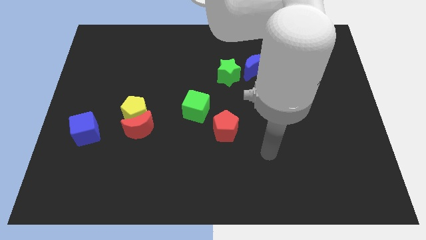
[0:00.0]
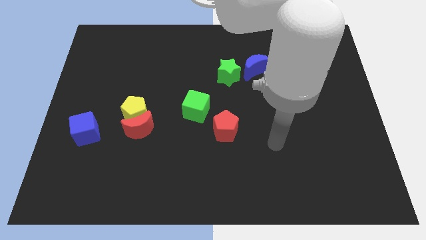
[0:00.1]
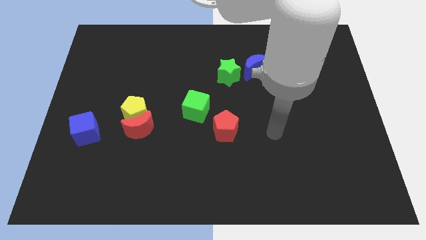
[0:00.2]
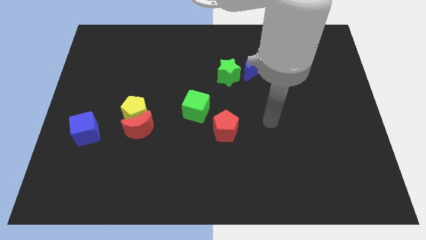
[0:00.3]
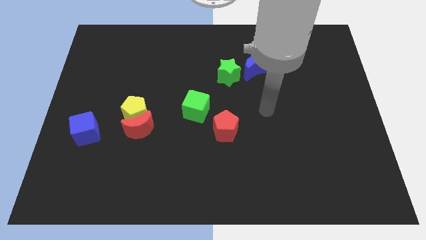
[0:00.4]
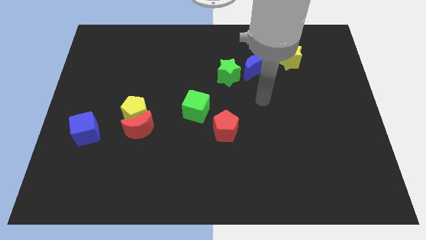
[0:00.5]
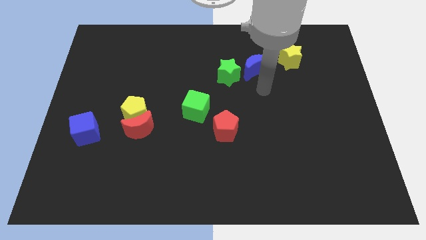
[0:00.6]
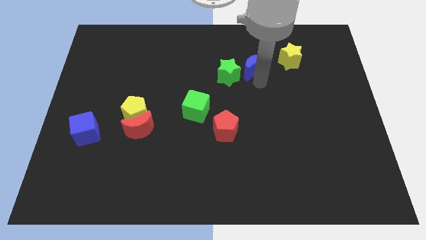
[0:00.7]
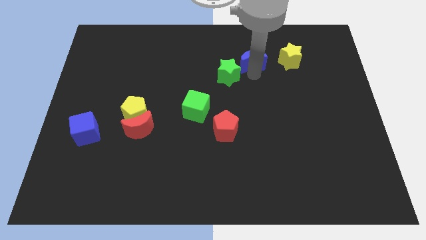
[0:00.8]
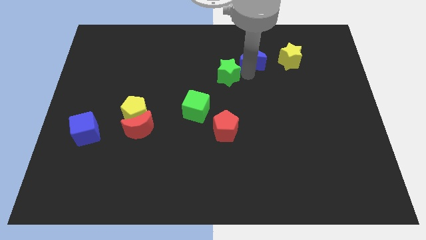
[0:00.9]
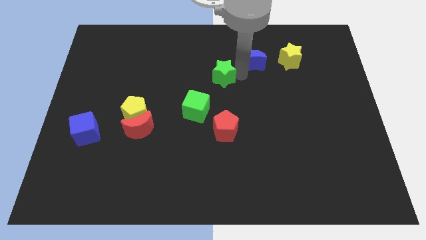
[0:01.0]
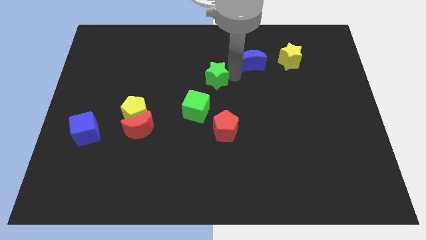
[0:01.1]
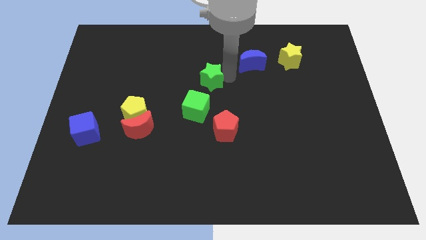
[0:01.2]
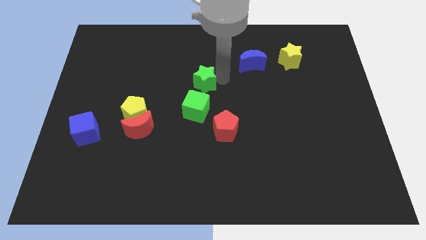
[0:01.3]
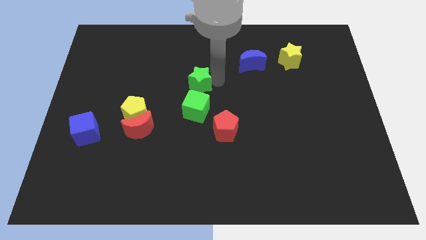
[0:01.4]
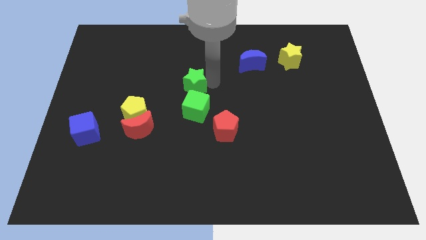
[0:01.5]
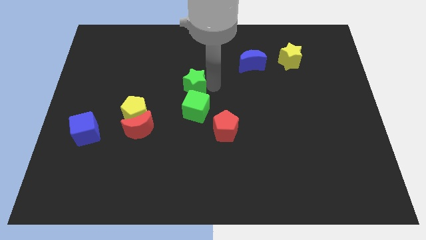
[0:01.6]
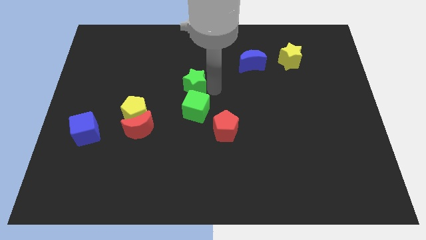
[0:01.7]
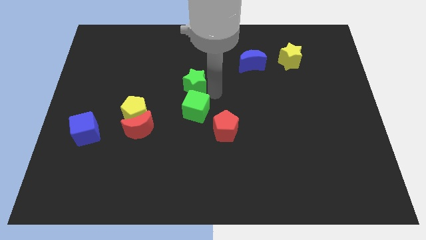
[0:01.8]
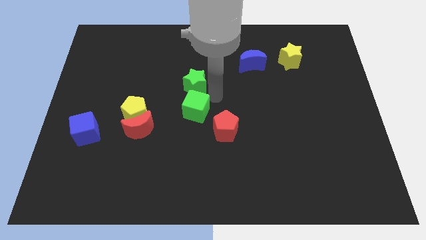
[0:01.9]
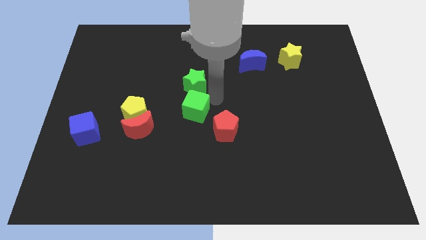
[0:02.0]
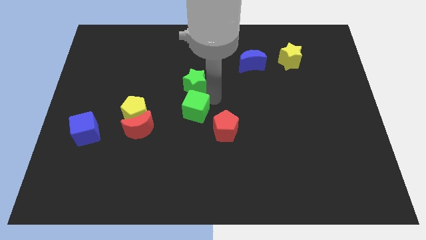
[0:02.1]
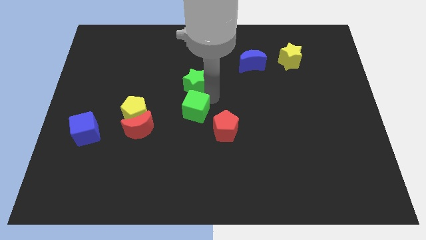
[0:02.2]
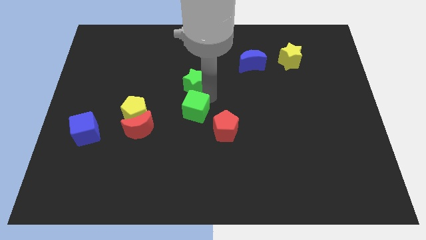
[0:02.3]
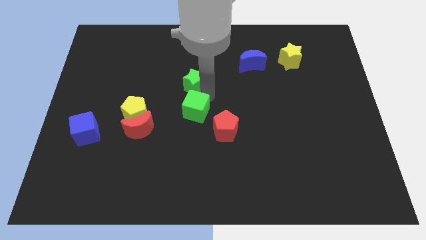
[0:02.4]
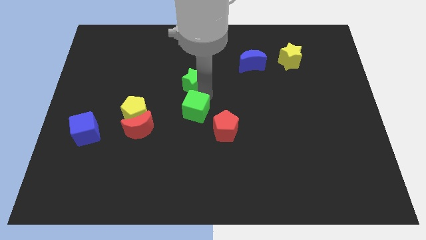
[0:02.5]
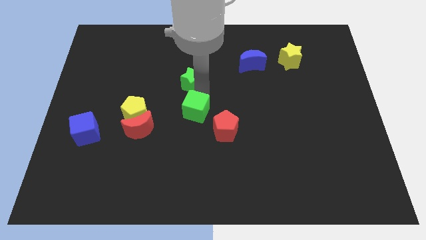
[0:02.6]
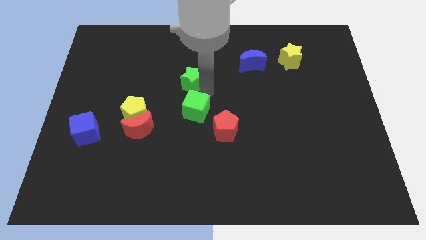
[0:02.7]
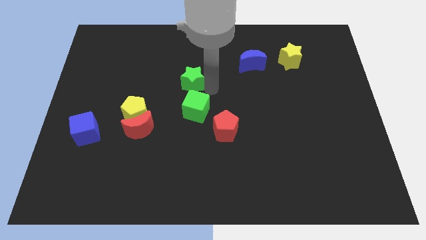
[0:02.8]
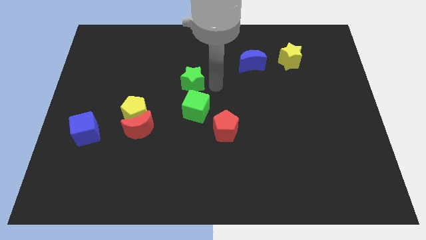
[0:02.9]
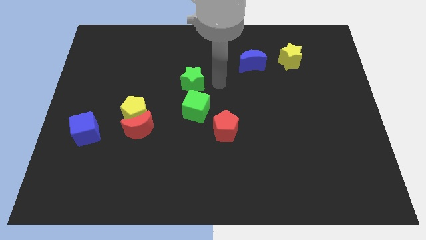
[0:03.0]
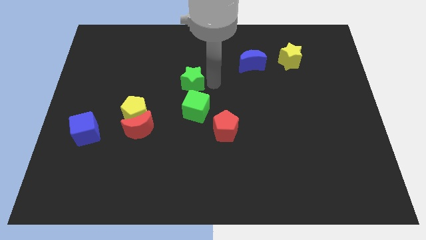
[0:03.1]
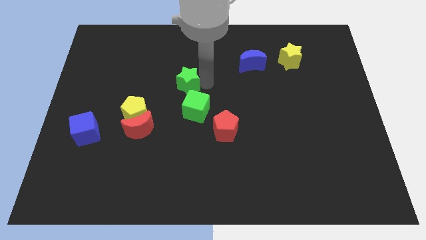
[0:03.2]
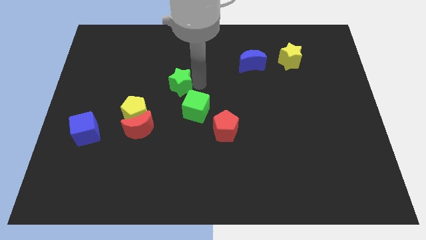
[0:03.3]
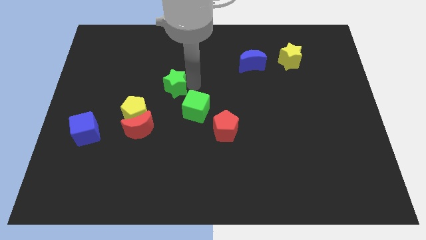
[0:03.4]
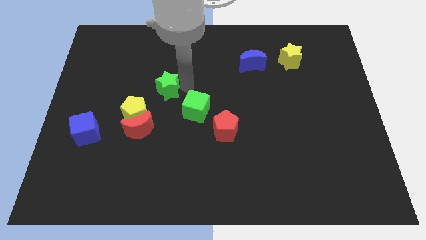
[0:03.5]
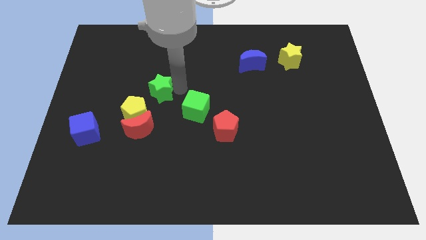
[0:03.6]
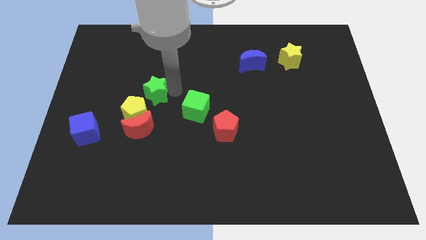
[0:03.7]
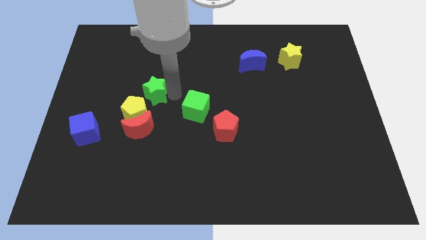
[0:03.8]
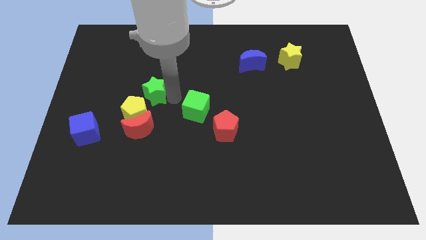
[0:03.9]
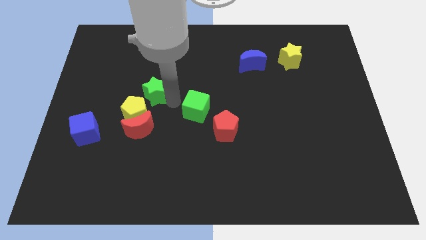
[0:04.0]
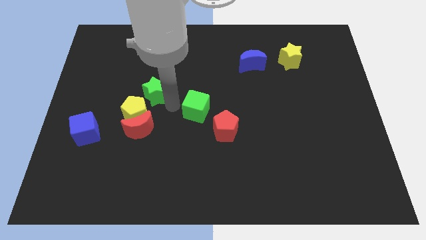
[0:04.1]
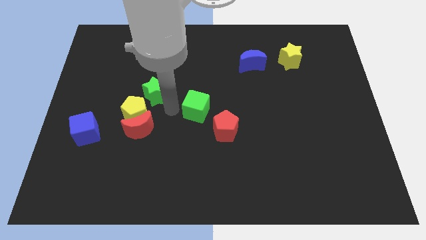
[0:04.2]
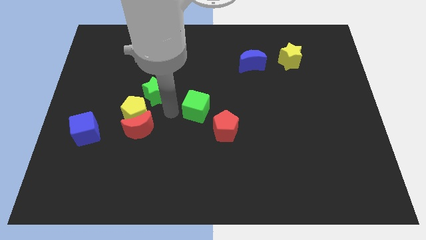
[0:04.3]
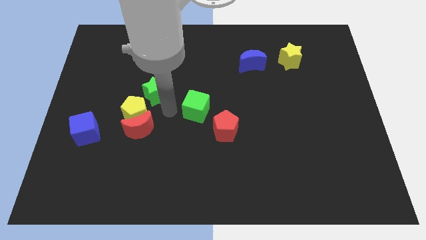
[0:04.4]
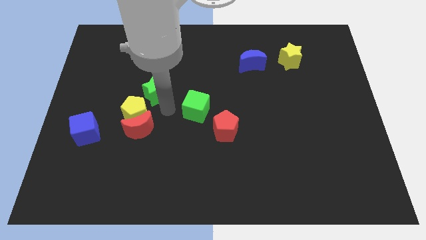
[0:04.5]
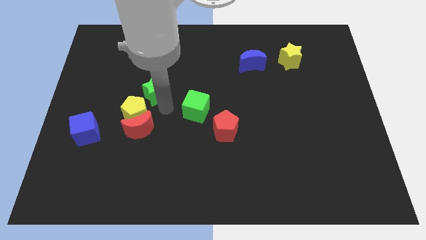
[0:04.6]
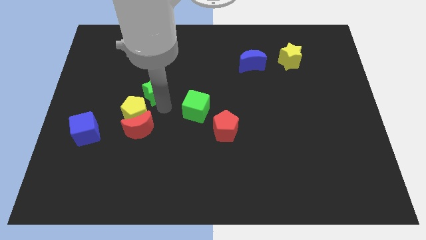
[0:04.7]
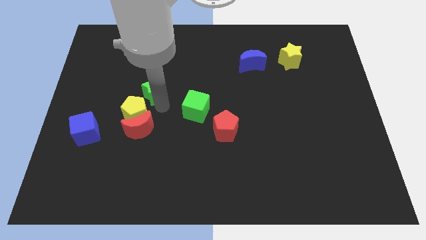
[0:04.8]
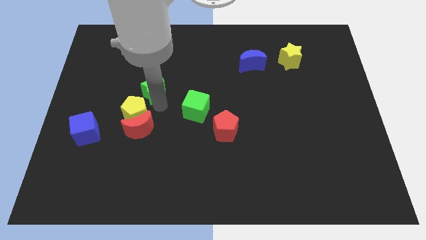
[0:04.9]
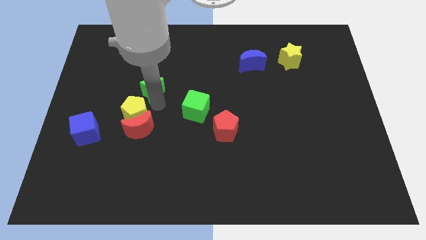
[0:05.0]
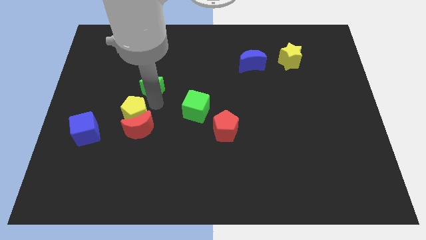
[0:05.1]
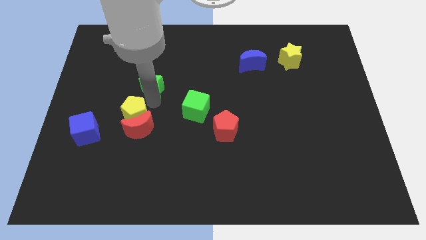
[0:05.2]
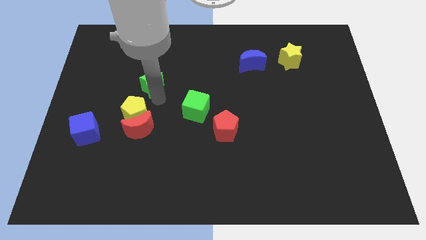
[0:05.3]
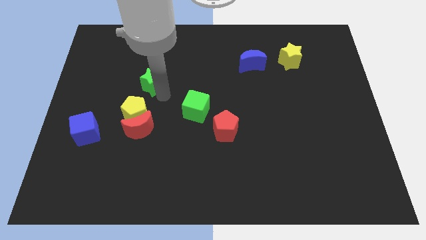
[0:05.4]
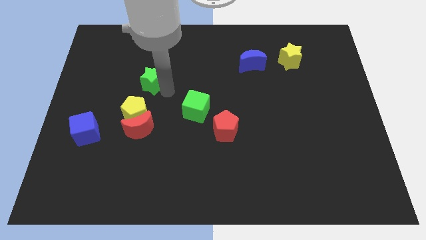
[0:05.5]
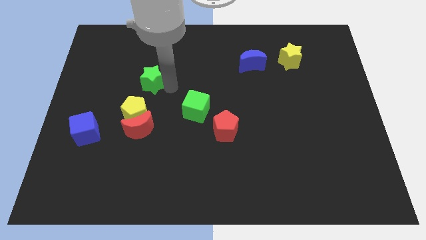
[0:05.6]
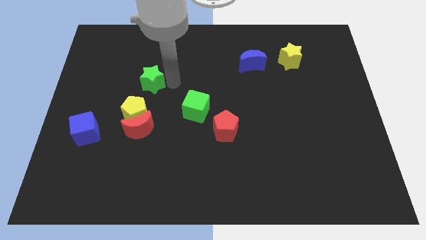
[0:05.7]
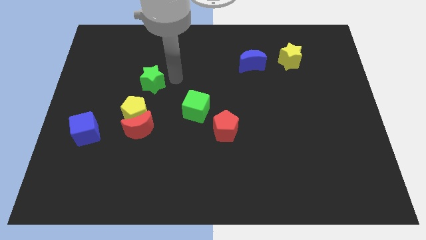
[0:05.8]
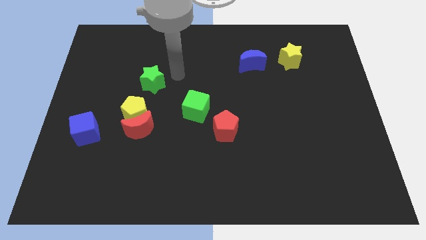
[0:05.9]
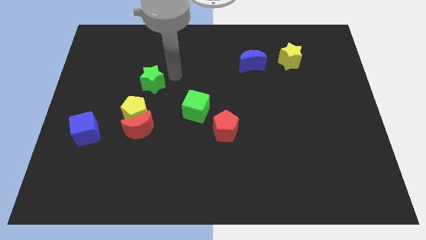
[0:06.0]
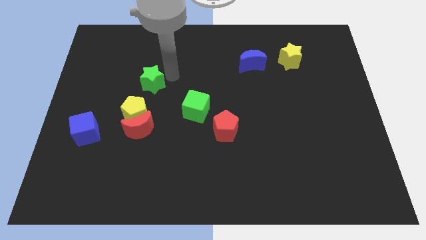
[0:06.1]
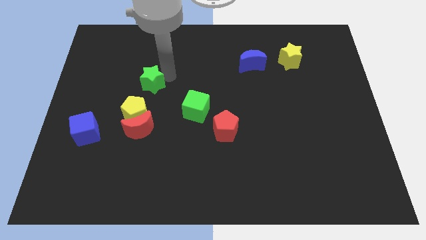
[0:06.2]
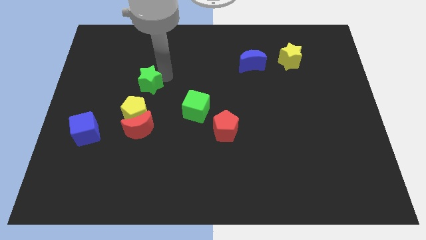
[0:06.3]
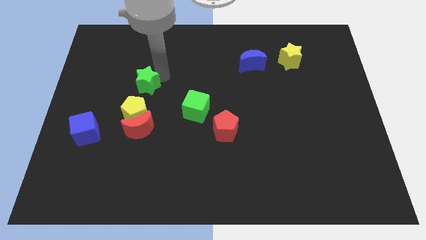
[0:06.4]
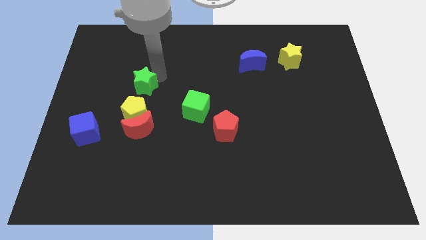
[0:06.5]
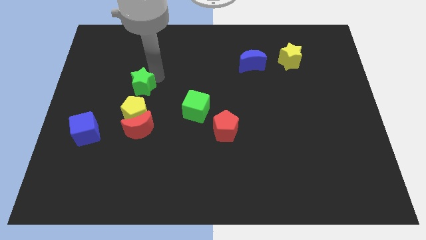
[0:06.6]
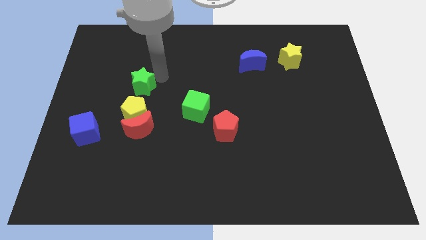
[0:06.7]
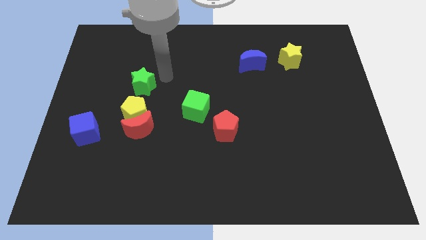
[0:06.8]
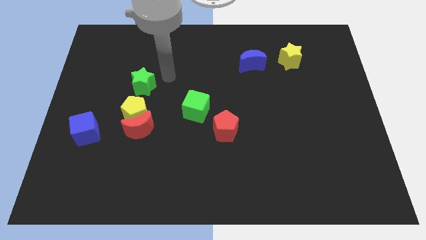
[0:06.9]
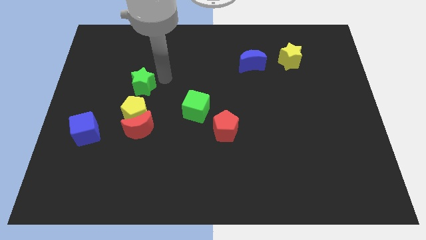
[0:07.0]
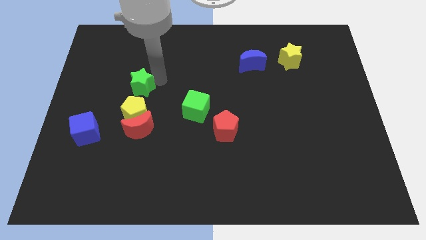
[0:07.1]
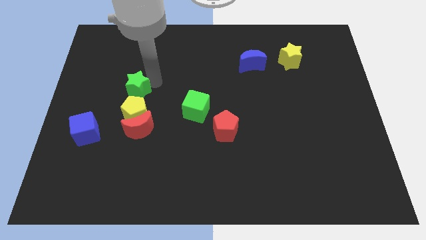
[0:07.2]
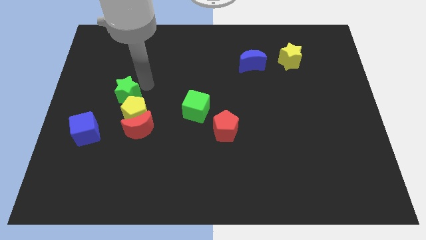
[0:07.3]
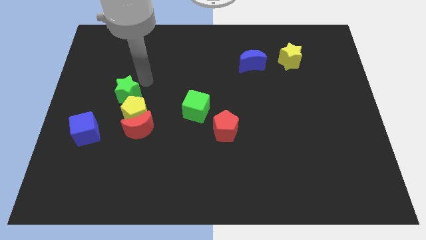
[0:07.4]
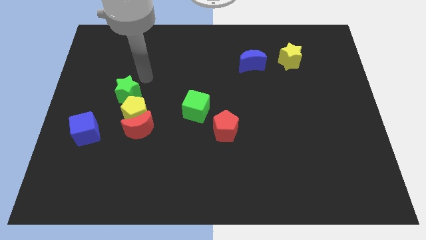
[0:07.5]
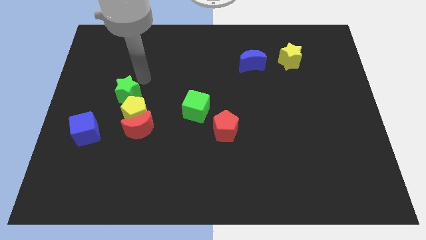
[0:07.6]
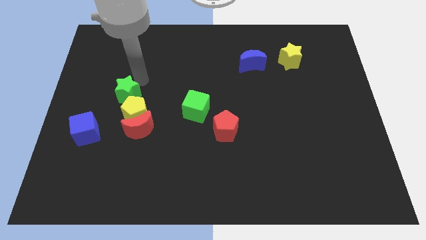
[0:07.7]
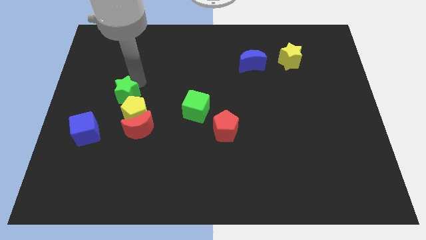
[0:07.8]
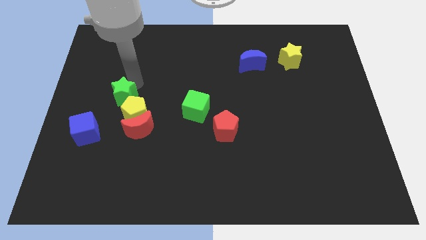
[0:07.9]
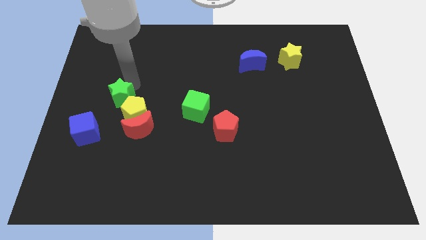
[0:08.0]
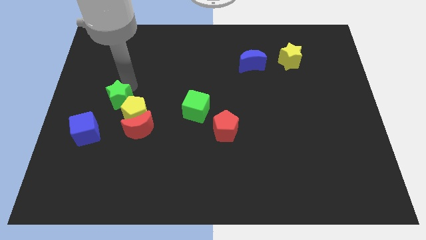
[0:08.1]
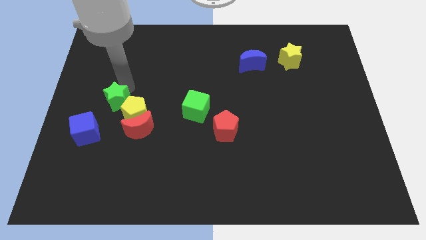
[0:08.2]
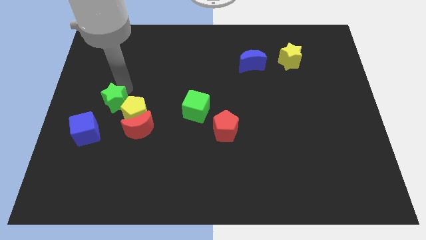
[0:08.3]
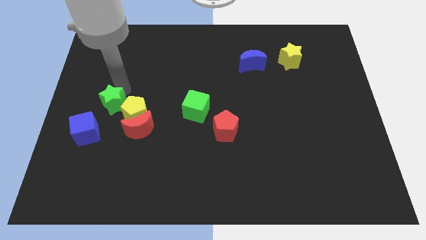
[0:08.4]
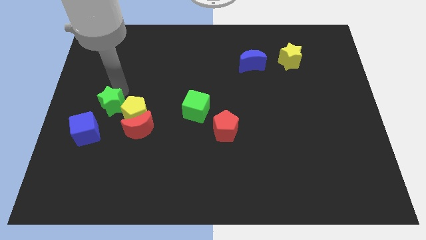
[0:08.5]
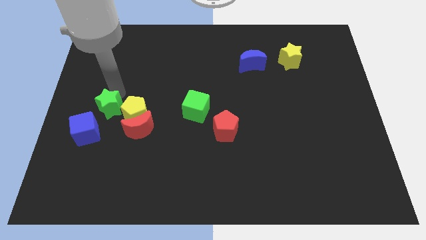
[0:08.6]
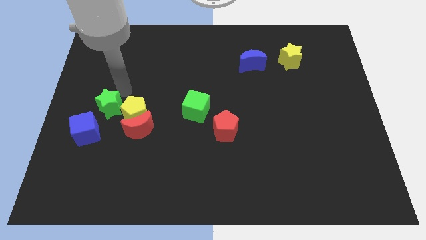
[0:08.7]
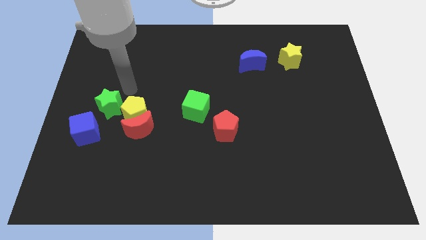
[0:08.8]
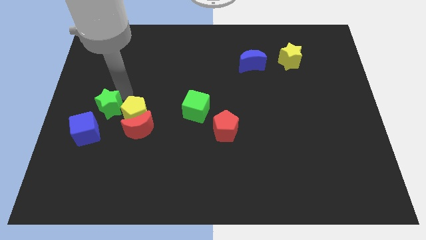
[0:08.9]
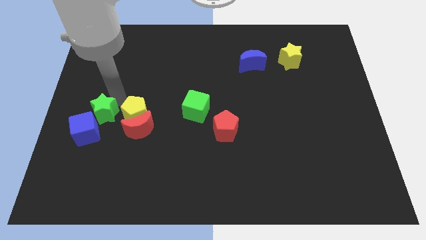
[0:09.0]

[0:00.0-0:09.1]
move the green star close to the blue cube
